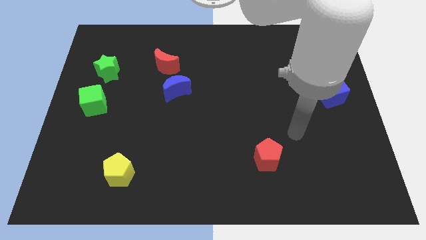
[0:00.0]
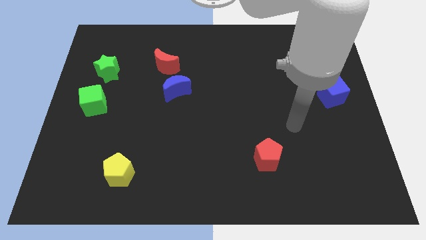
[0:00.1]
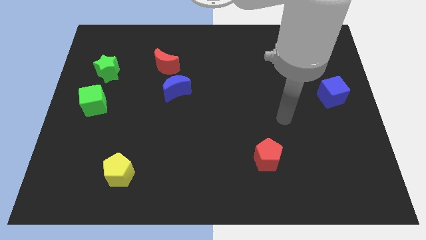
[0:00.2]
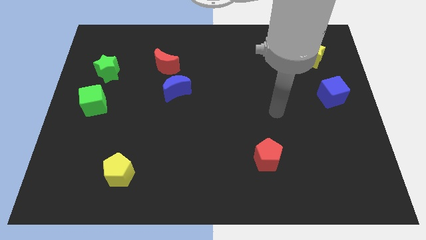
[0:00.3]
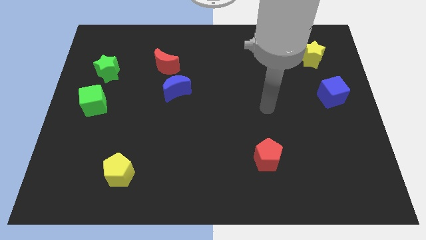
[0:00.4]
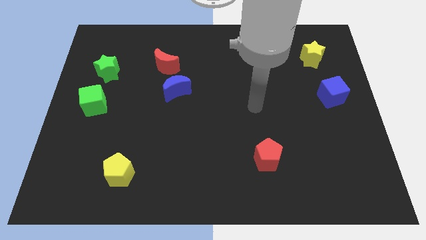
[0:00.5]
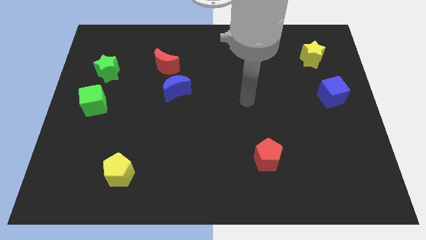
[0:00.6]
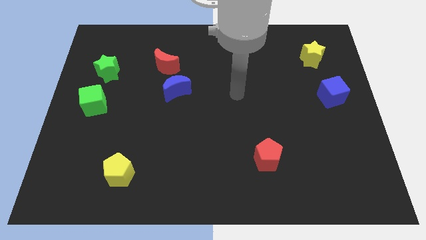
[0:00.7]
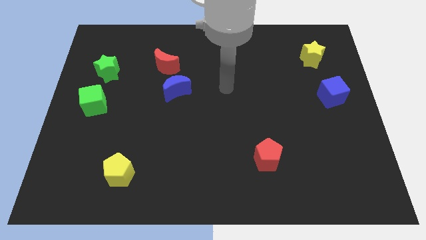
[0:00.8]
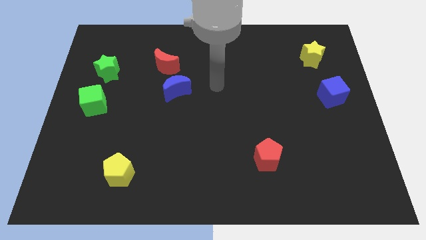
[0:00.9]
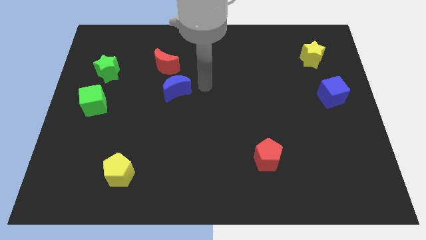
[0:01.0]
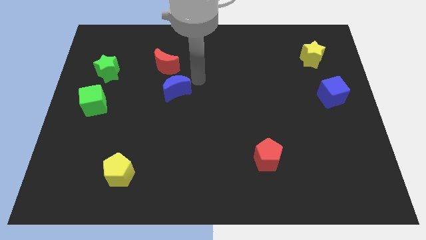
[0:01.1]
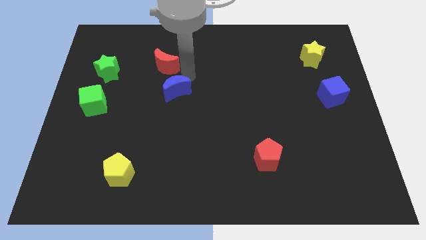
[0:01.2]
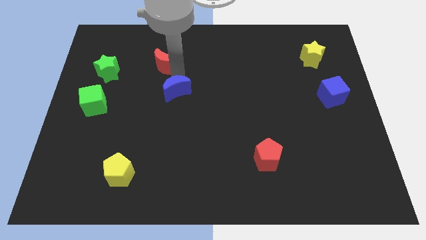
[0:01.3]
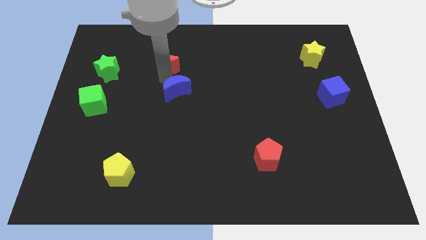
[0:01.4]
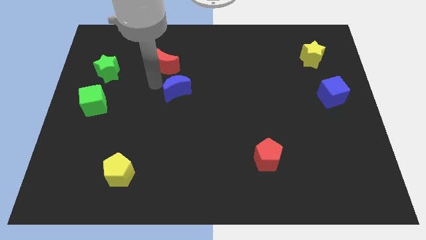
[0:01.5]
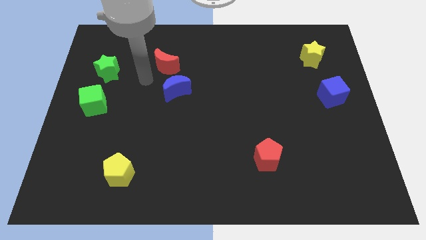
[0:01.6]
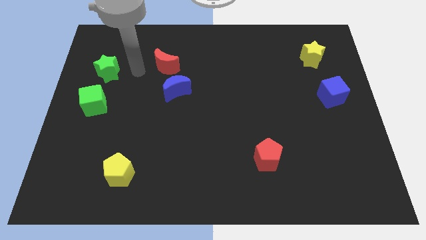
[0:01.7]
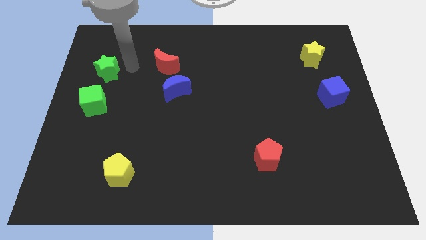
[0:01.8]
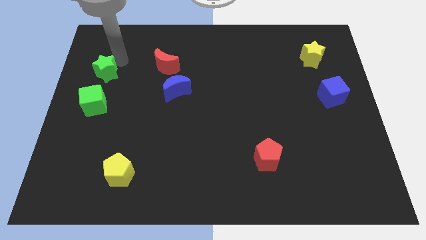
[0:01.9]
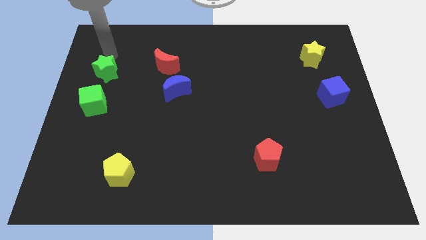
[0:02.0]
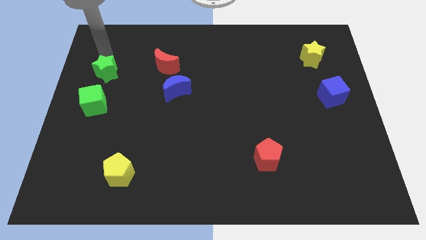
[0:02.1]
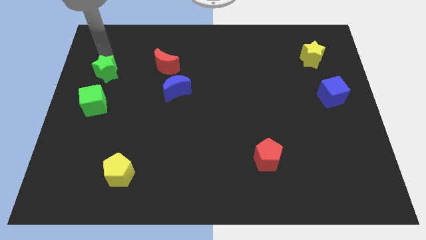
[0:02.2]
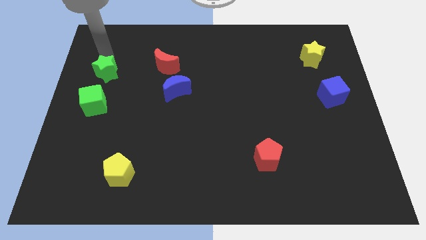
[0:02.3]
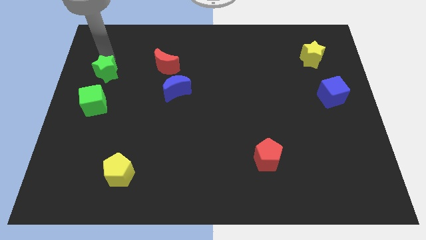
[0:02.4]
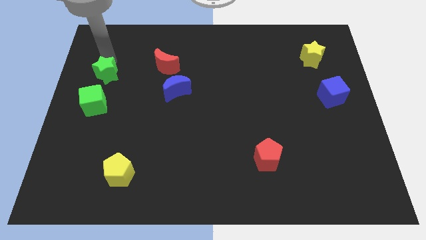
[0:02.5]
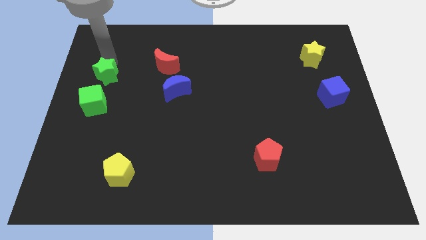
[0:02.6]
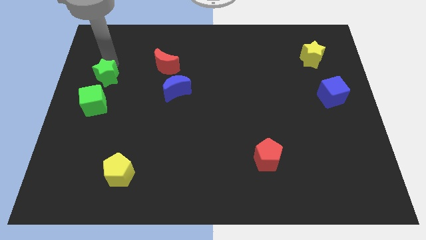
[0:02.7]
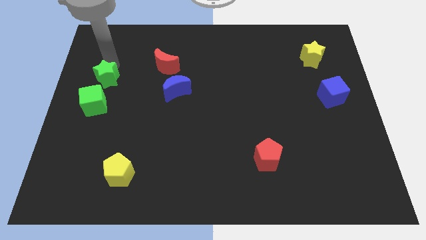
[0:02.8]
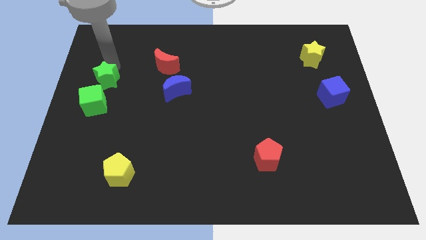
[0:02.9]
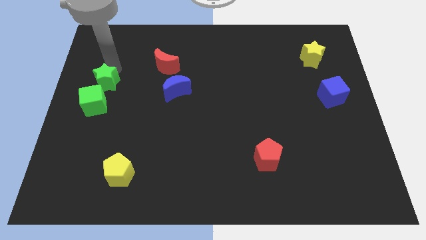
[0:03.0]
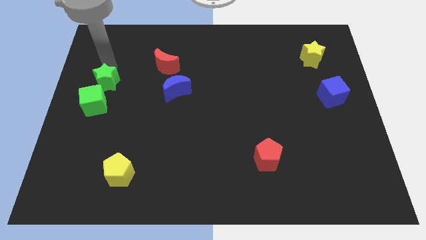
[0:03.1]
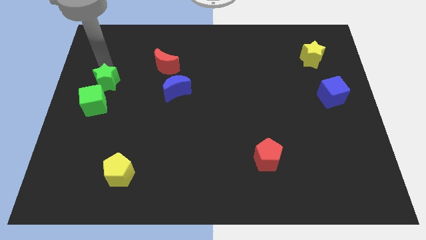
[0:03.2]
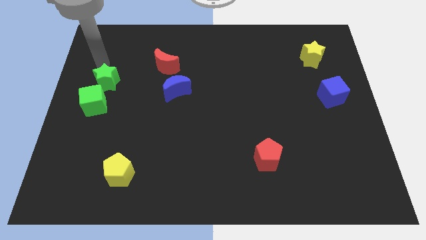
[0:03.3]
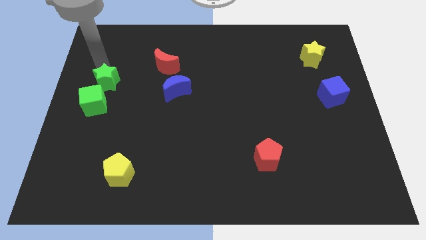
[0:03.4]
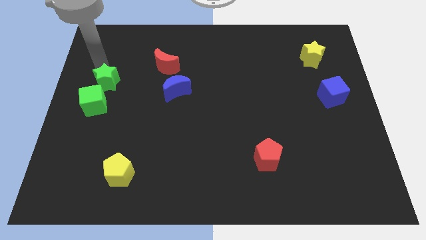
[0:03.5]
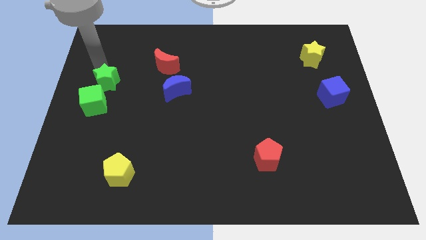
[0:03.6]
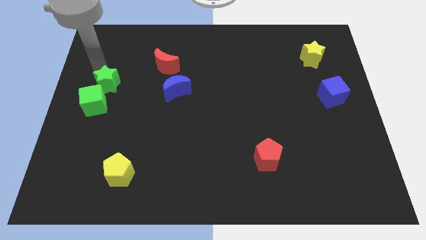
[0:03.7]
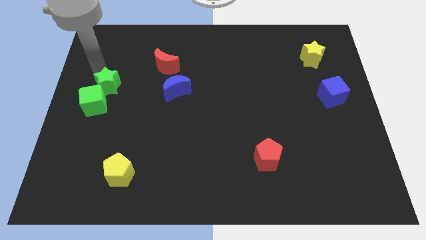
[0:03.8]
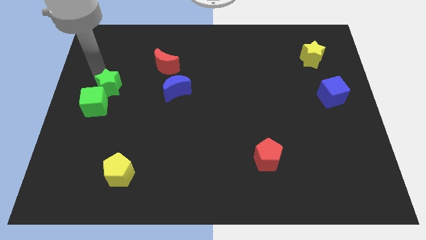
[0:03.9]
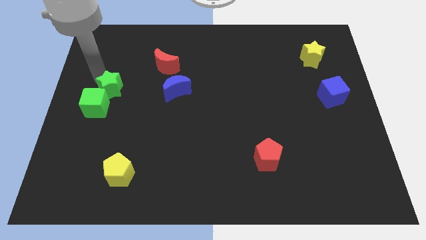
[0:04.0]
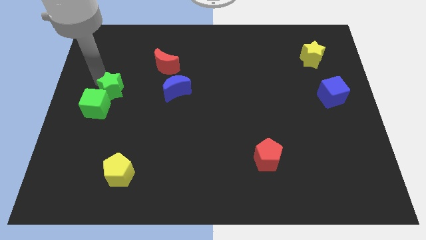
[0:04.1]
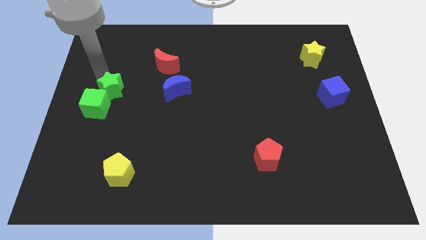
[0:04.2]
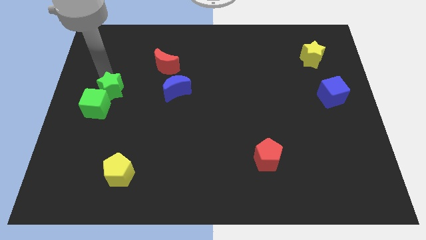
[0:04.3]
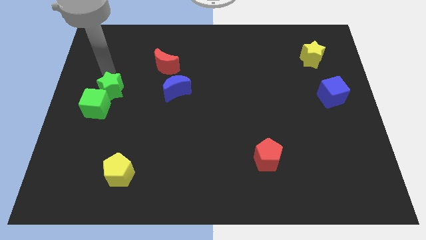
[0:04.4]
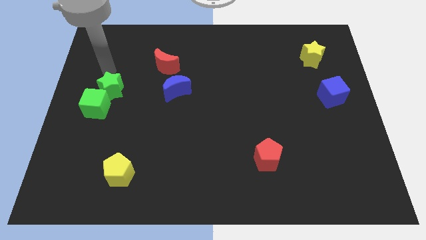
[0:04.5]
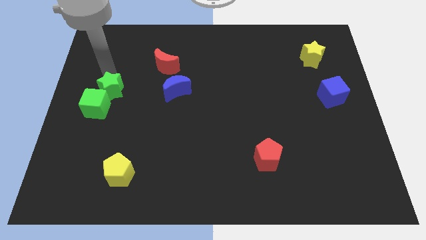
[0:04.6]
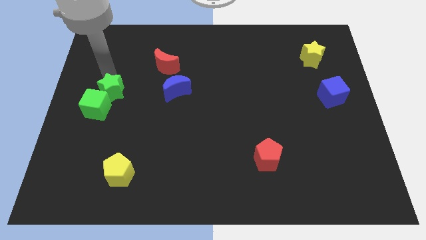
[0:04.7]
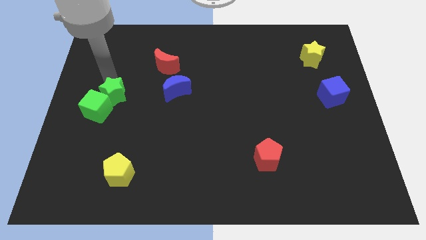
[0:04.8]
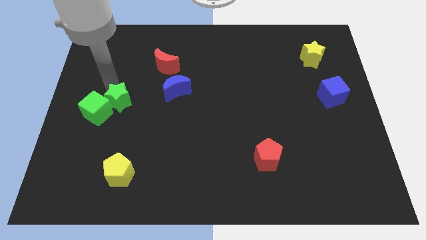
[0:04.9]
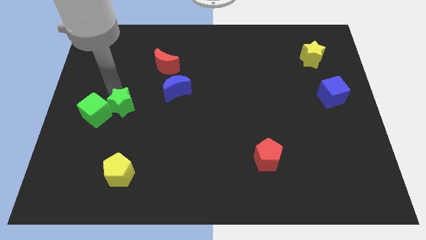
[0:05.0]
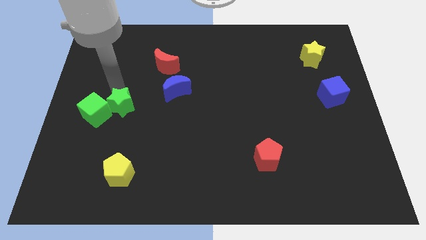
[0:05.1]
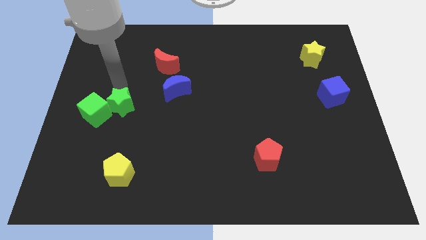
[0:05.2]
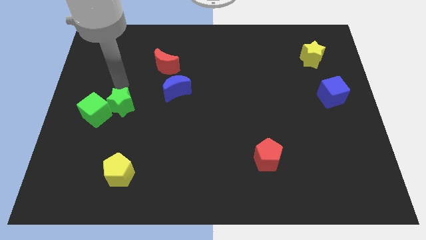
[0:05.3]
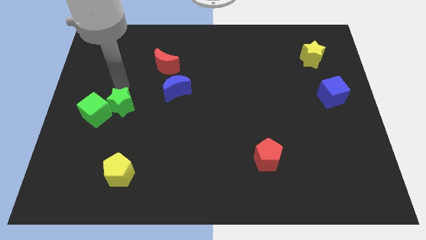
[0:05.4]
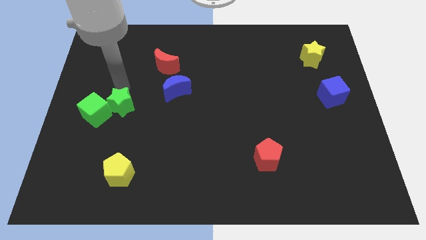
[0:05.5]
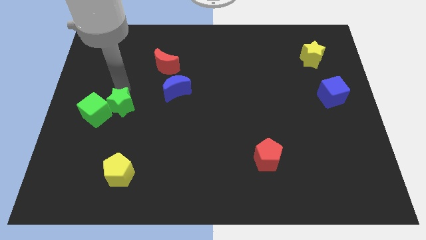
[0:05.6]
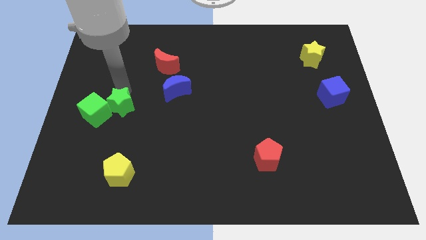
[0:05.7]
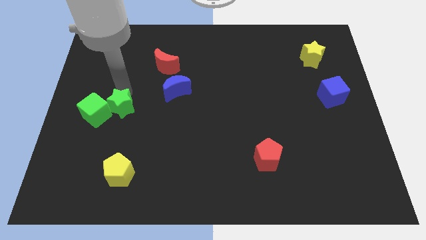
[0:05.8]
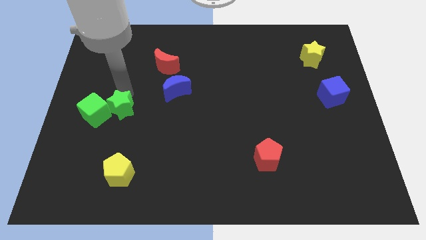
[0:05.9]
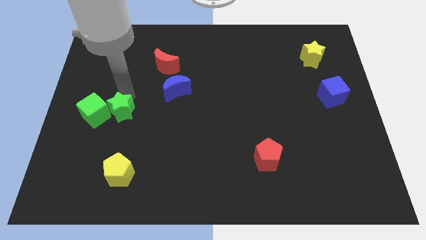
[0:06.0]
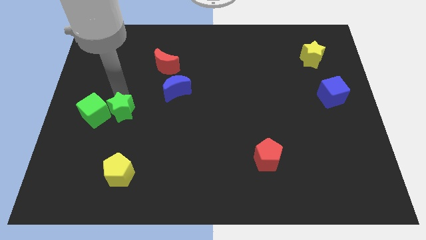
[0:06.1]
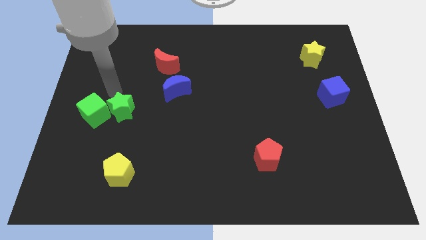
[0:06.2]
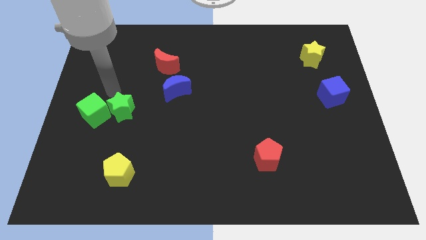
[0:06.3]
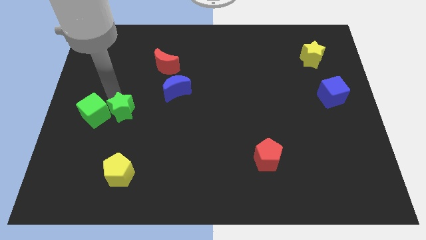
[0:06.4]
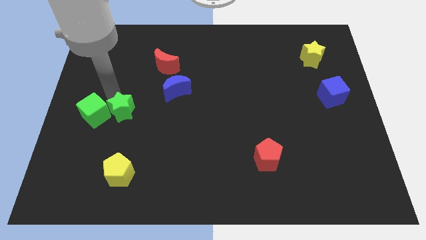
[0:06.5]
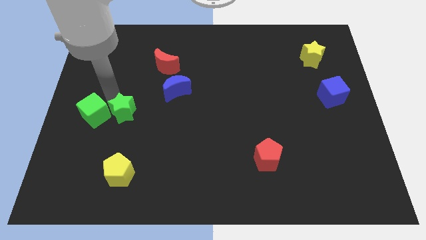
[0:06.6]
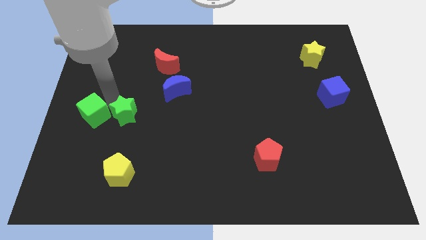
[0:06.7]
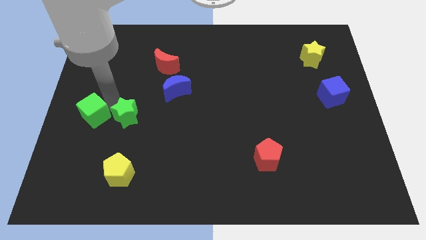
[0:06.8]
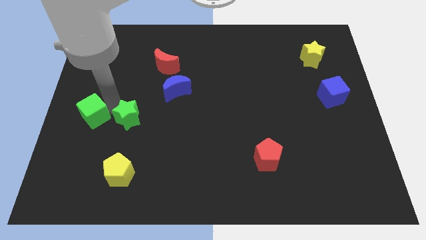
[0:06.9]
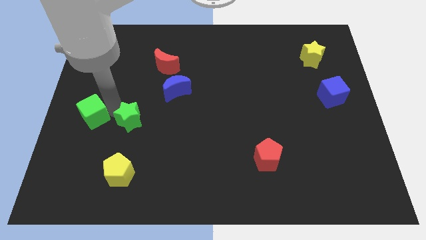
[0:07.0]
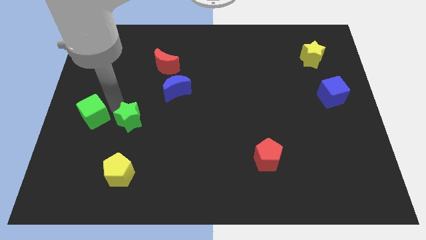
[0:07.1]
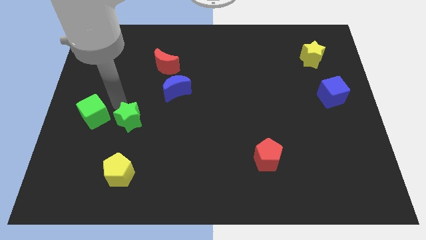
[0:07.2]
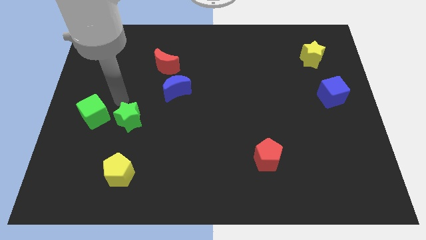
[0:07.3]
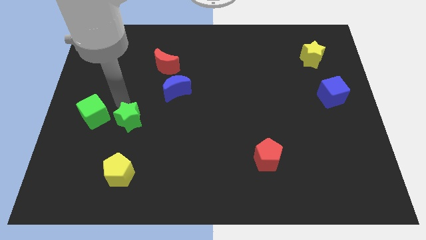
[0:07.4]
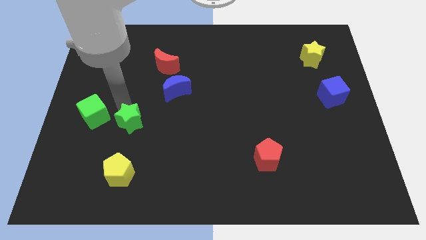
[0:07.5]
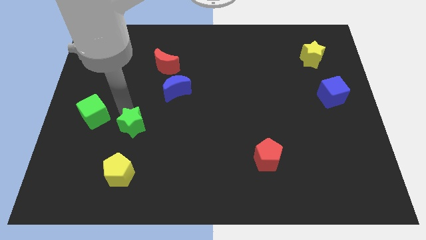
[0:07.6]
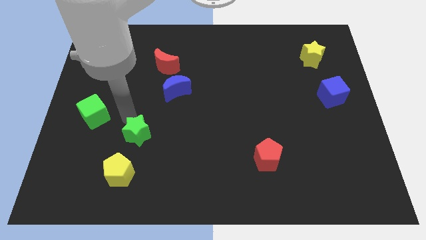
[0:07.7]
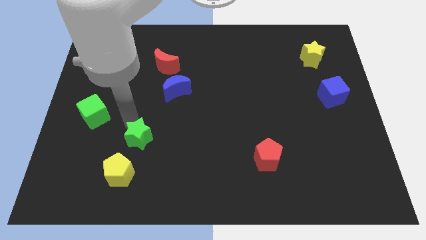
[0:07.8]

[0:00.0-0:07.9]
put the green star to the top right side of the yellow pentagon
